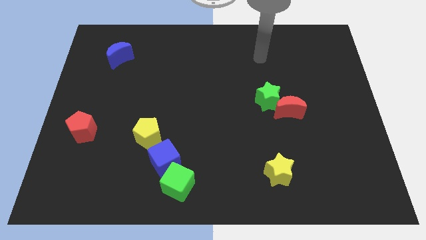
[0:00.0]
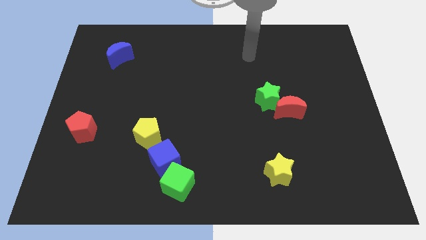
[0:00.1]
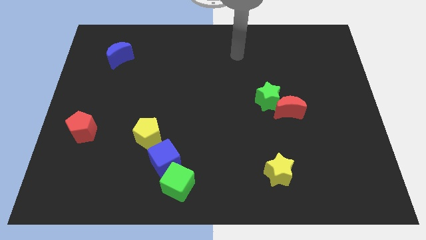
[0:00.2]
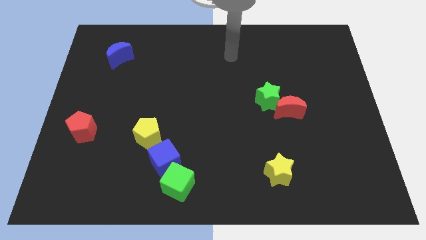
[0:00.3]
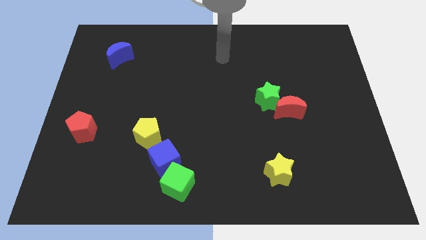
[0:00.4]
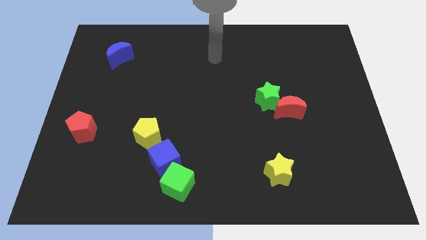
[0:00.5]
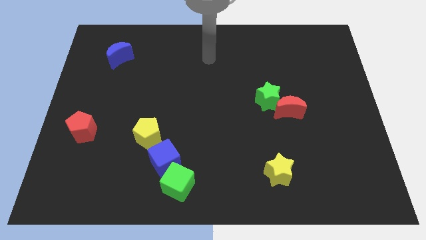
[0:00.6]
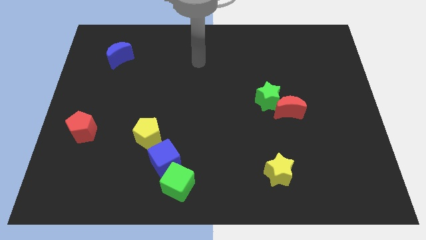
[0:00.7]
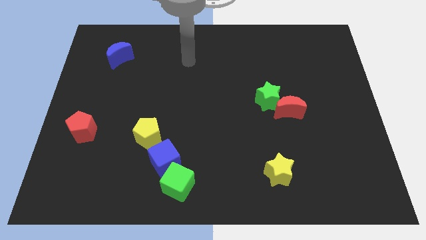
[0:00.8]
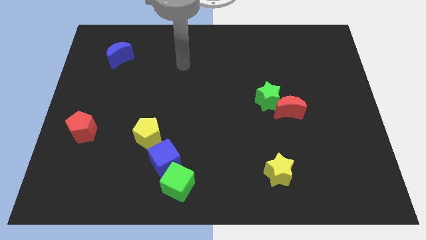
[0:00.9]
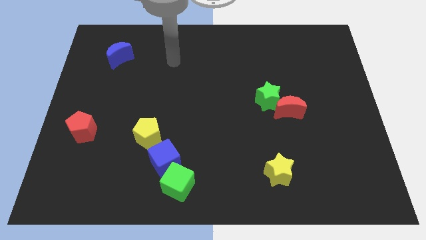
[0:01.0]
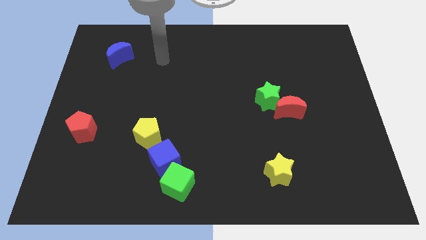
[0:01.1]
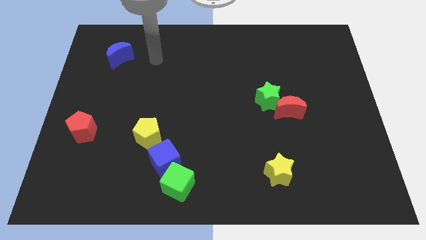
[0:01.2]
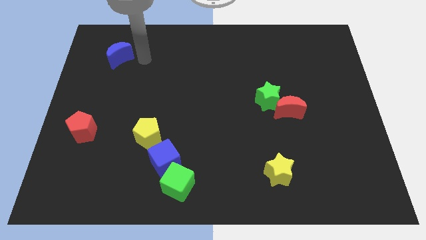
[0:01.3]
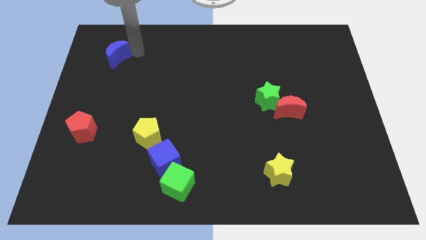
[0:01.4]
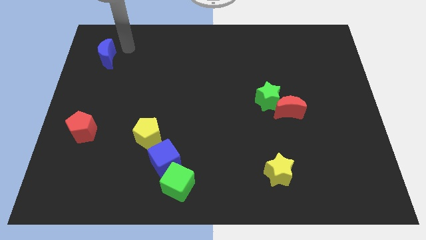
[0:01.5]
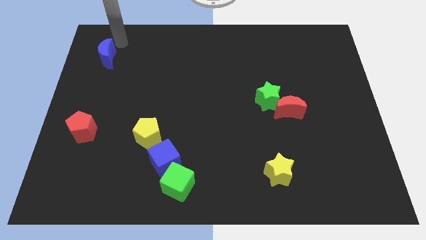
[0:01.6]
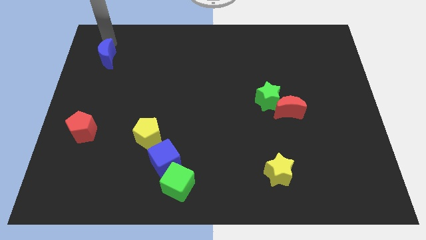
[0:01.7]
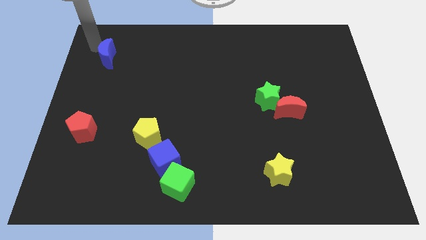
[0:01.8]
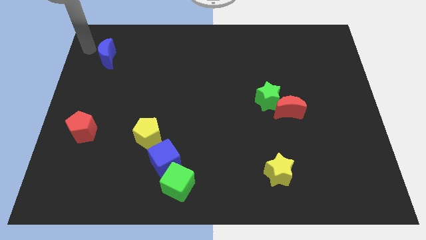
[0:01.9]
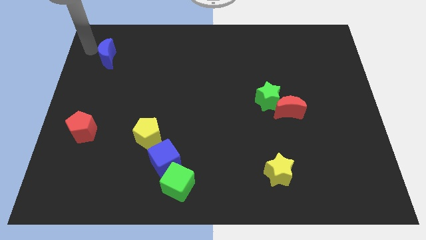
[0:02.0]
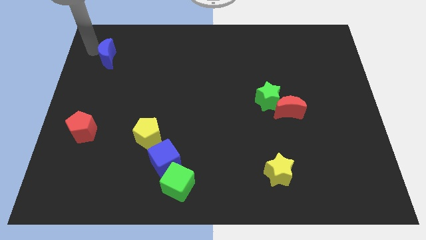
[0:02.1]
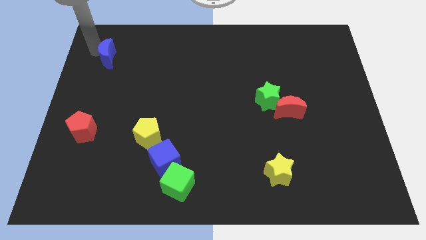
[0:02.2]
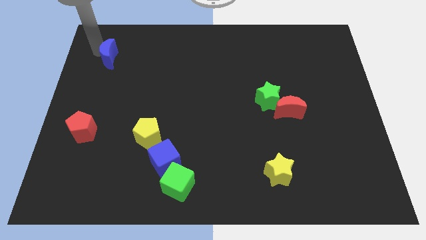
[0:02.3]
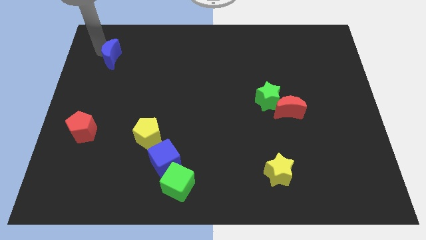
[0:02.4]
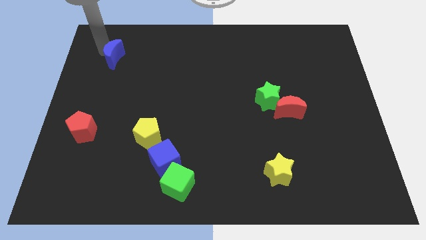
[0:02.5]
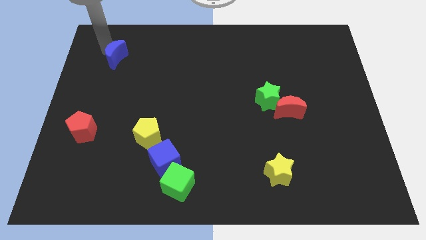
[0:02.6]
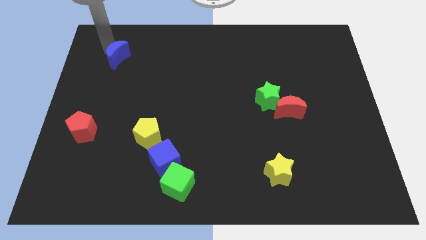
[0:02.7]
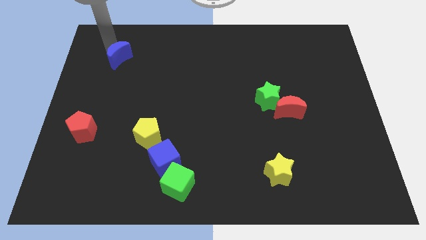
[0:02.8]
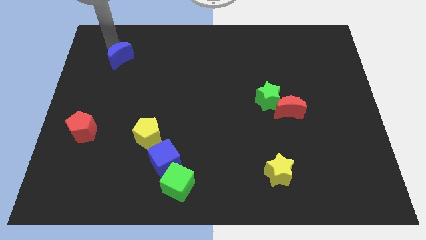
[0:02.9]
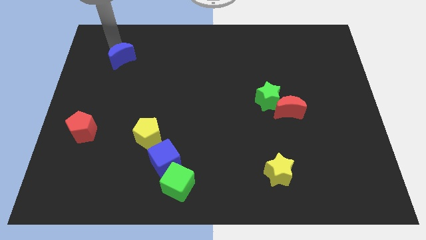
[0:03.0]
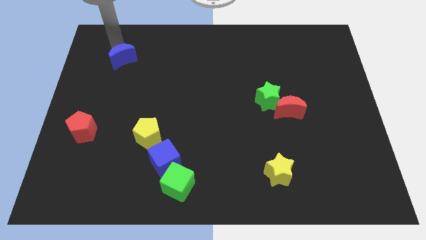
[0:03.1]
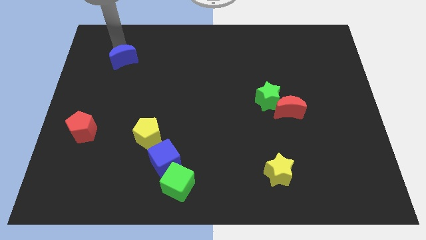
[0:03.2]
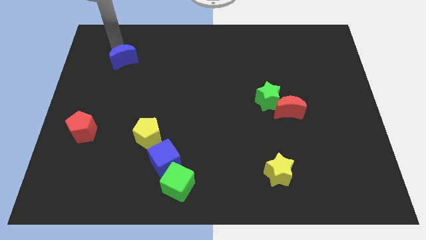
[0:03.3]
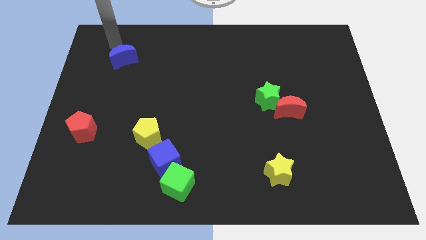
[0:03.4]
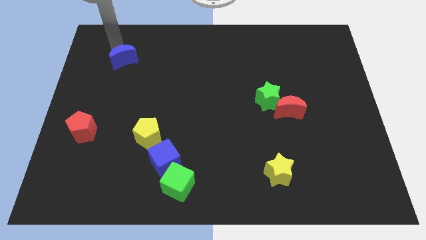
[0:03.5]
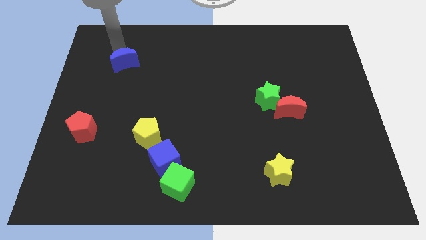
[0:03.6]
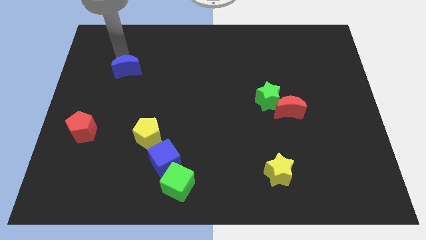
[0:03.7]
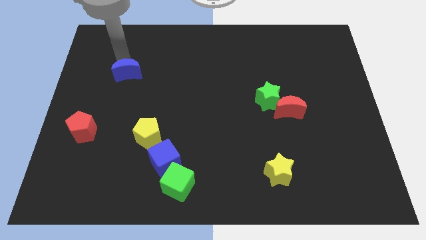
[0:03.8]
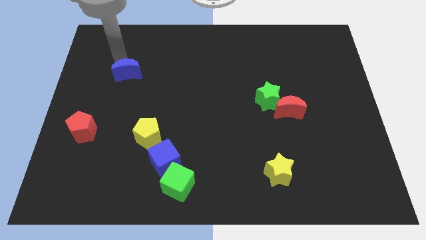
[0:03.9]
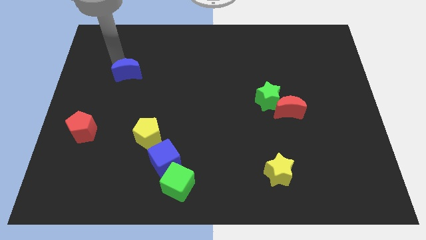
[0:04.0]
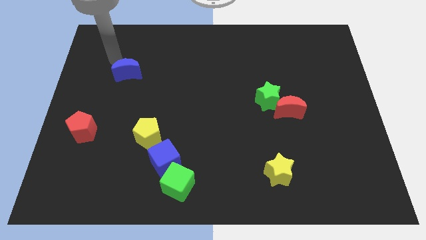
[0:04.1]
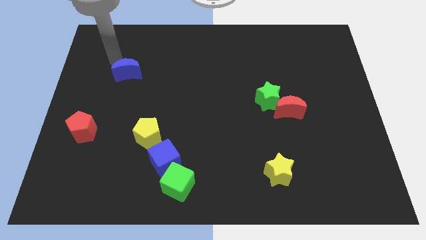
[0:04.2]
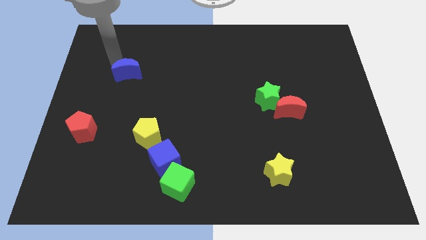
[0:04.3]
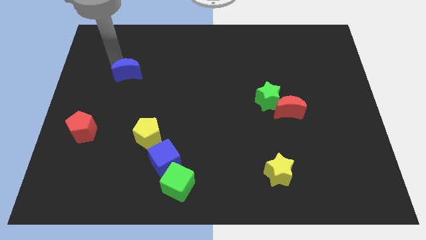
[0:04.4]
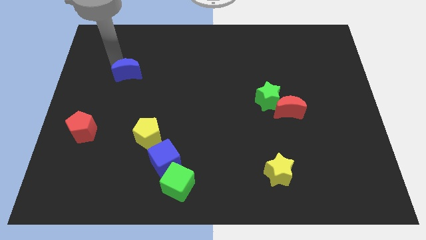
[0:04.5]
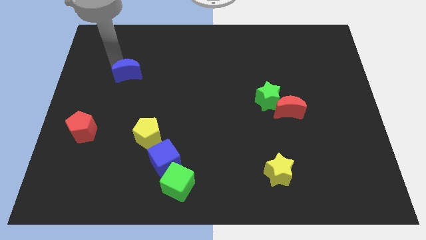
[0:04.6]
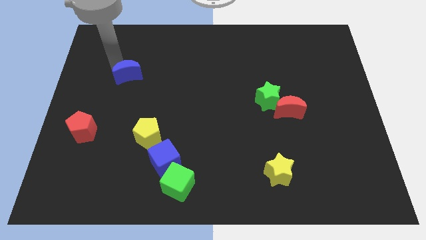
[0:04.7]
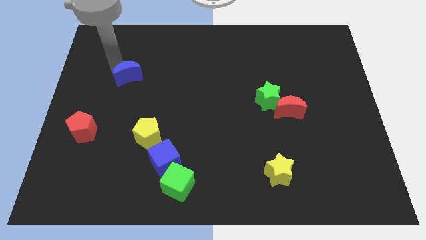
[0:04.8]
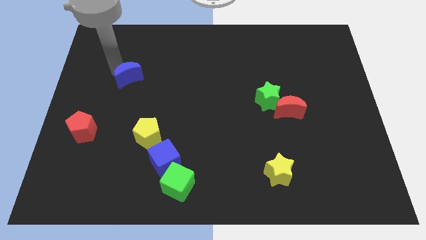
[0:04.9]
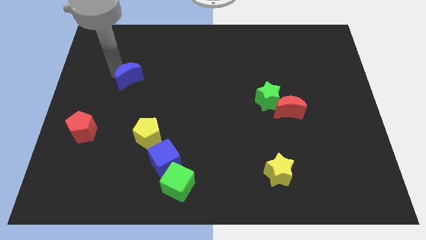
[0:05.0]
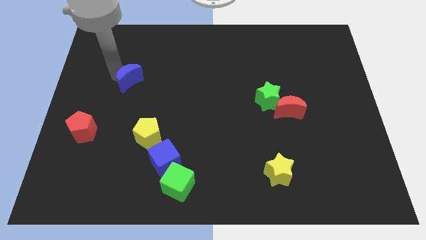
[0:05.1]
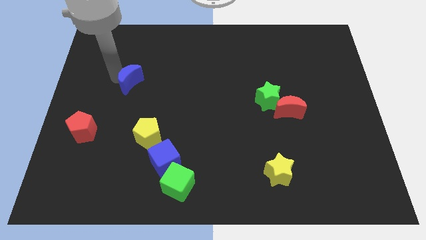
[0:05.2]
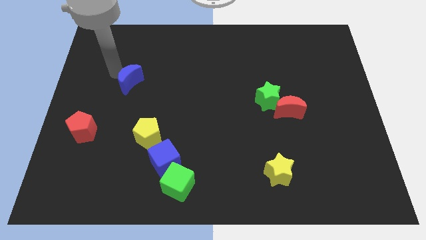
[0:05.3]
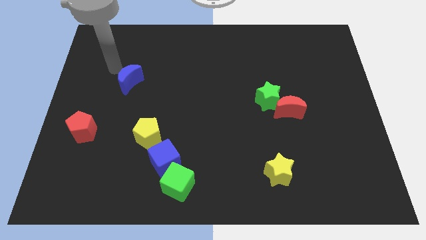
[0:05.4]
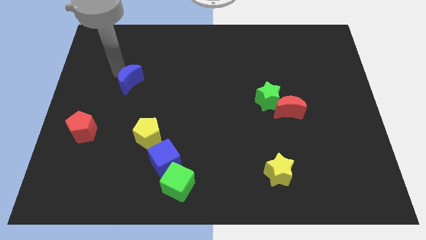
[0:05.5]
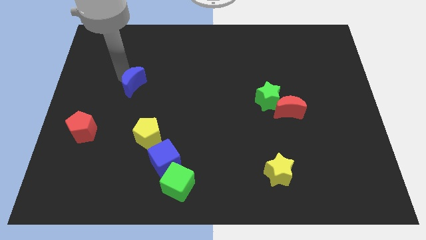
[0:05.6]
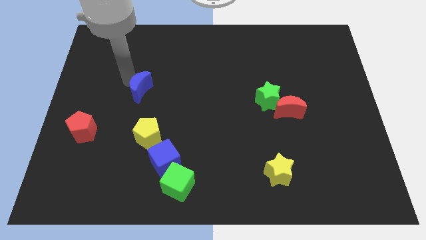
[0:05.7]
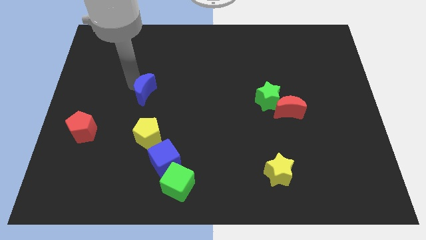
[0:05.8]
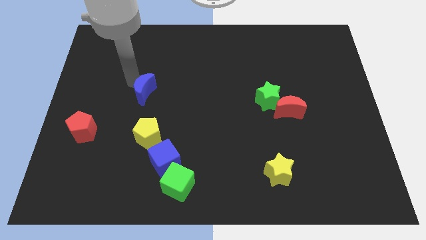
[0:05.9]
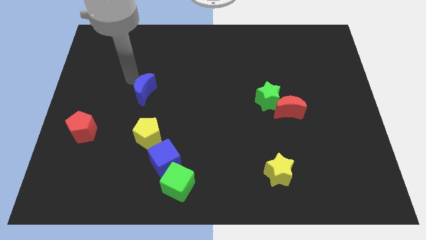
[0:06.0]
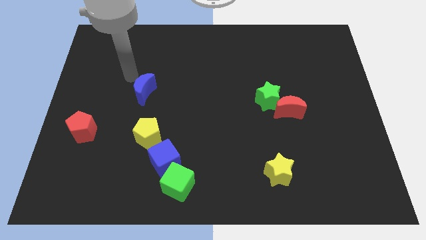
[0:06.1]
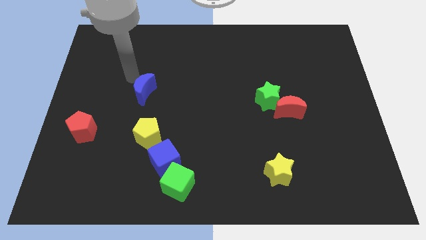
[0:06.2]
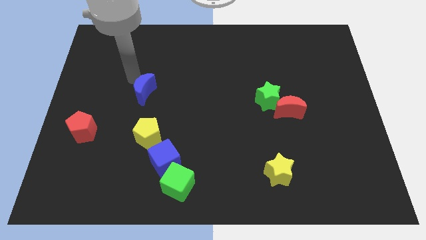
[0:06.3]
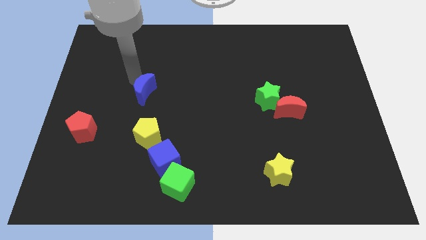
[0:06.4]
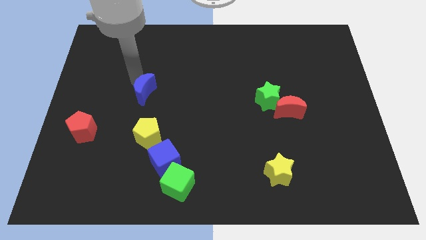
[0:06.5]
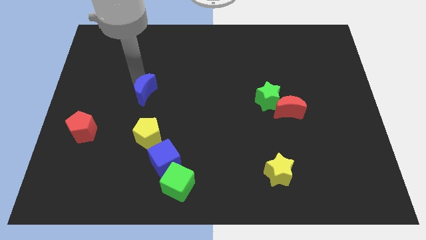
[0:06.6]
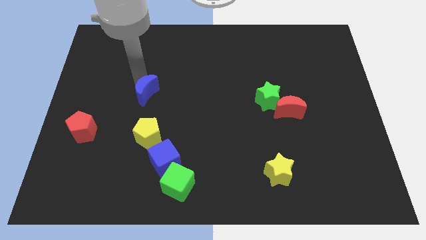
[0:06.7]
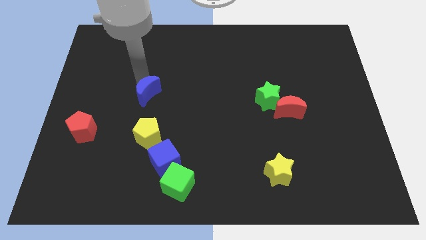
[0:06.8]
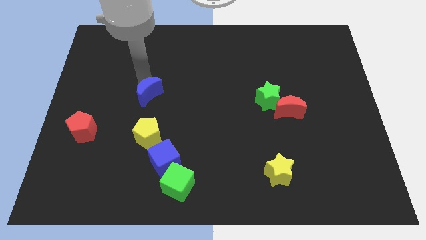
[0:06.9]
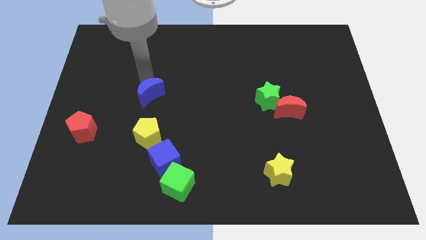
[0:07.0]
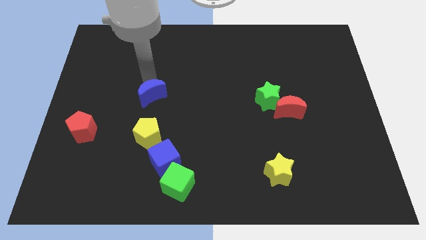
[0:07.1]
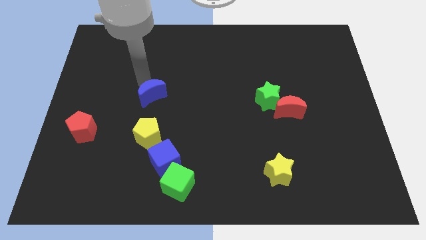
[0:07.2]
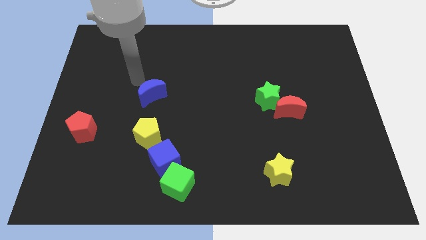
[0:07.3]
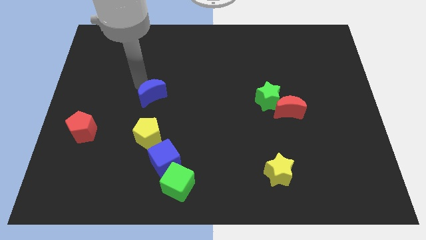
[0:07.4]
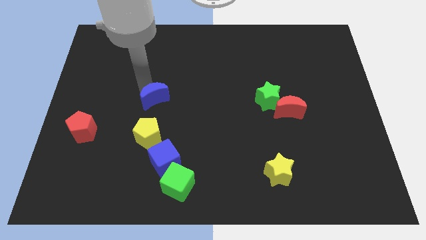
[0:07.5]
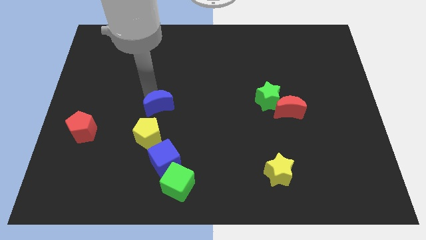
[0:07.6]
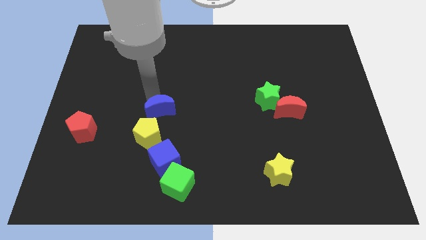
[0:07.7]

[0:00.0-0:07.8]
move the blue moon to the top right of the yellow pentagon
